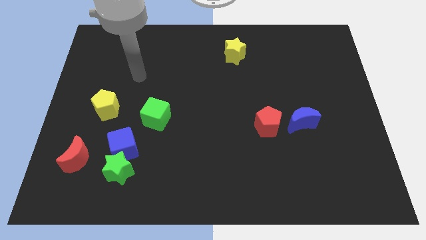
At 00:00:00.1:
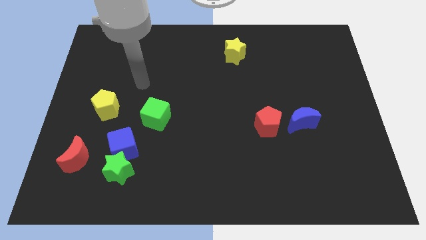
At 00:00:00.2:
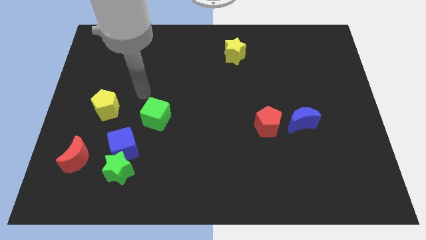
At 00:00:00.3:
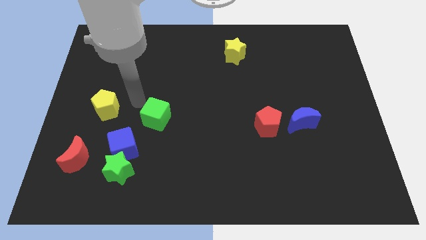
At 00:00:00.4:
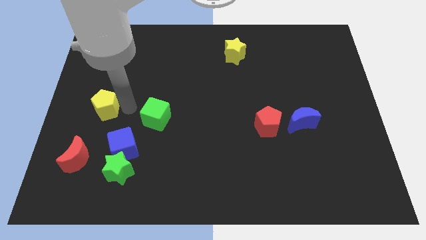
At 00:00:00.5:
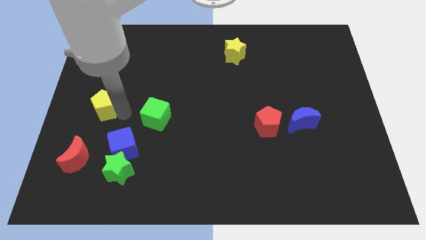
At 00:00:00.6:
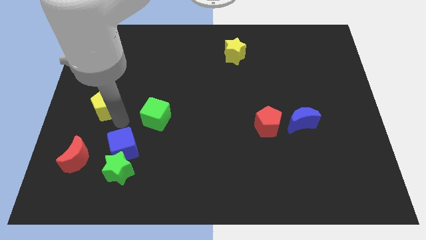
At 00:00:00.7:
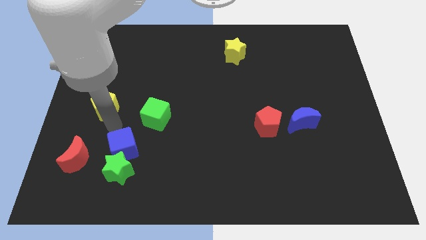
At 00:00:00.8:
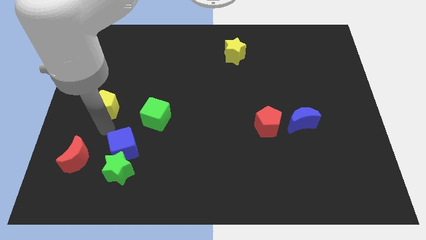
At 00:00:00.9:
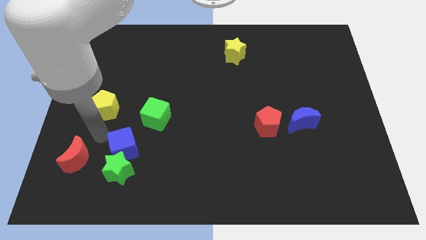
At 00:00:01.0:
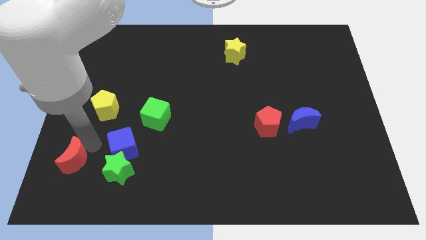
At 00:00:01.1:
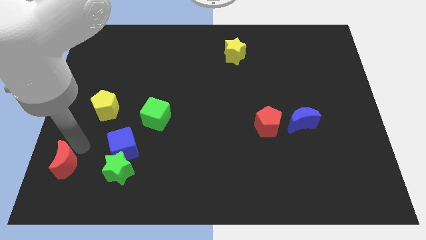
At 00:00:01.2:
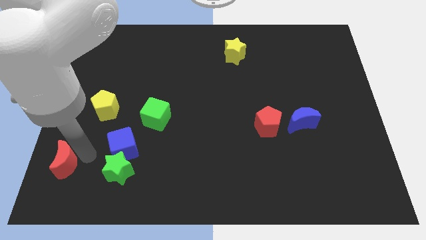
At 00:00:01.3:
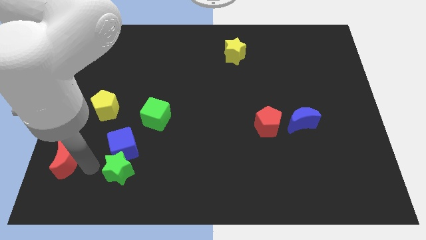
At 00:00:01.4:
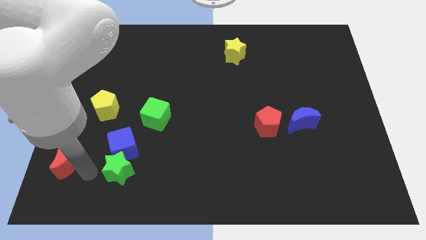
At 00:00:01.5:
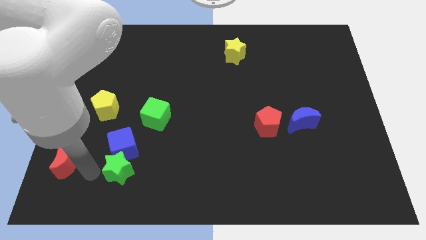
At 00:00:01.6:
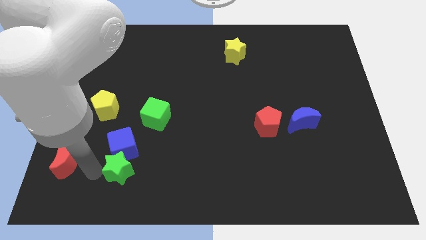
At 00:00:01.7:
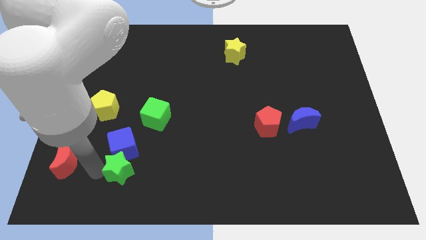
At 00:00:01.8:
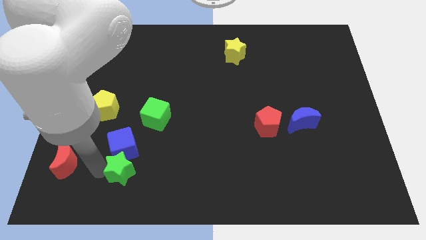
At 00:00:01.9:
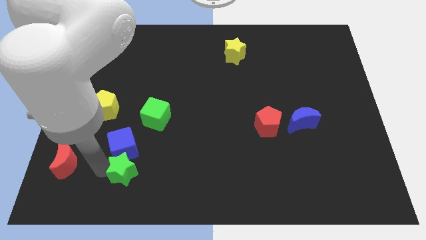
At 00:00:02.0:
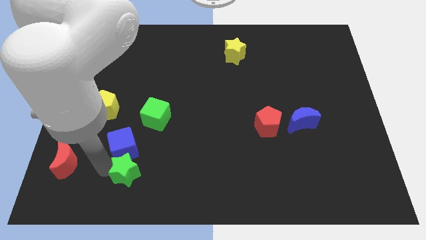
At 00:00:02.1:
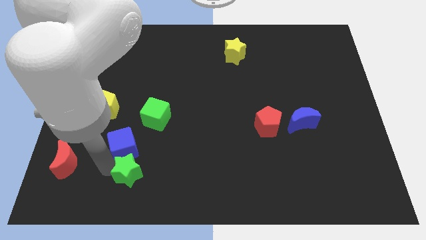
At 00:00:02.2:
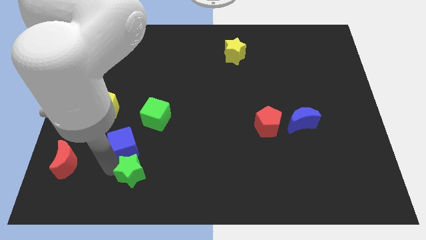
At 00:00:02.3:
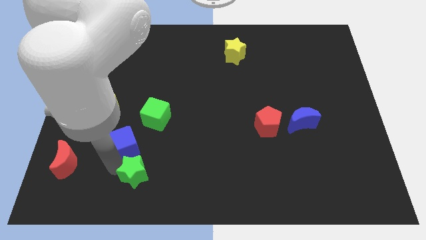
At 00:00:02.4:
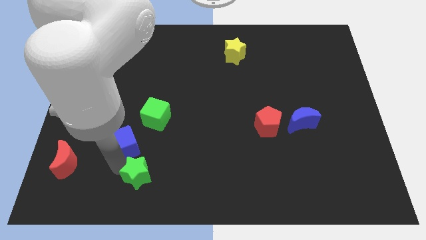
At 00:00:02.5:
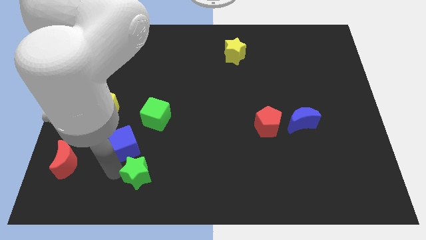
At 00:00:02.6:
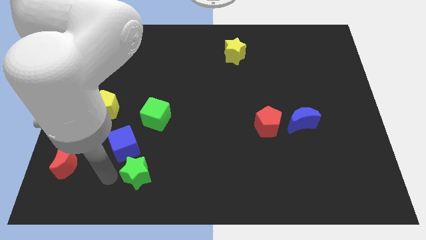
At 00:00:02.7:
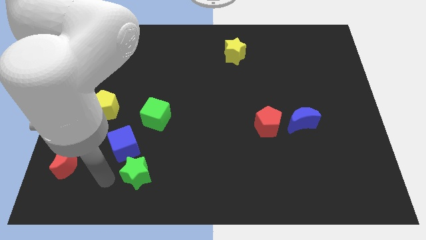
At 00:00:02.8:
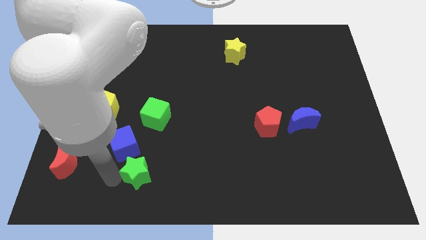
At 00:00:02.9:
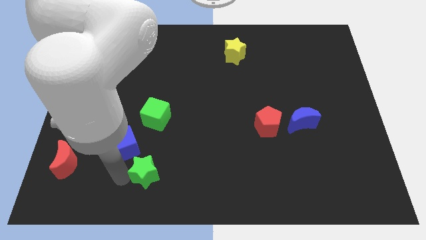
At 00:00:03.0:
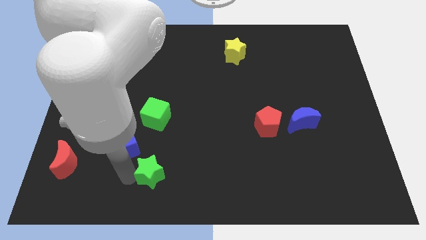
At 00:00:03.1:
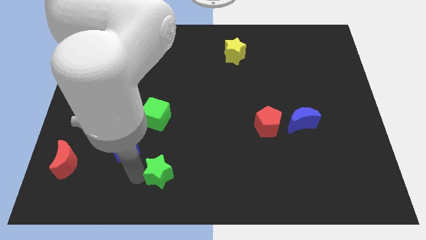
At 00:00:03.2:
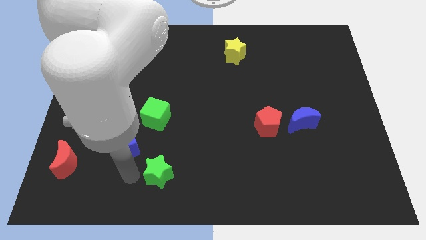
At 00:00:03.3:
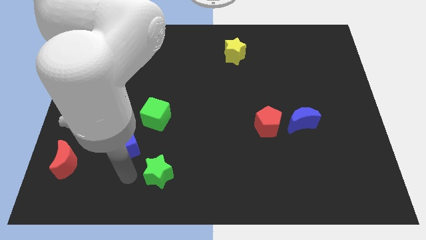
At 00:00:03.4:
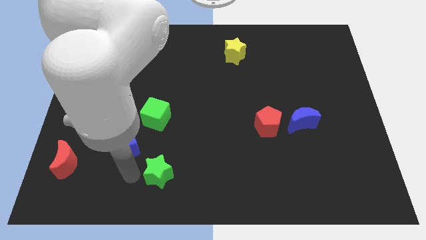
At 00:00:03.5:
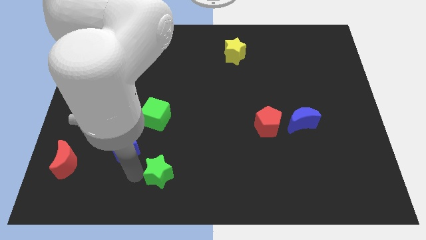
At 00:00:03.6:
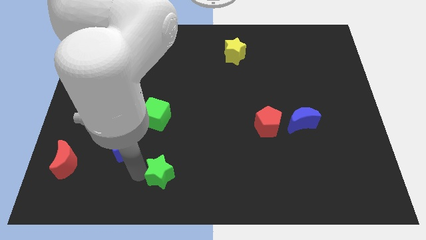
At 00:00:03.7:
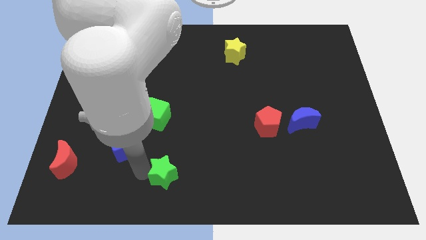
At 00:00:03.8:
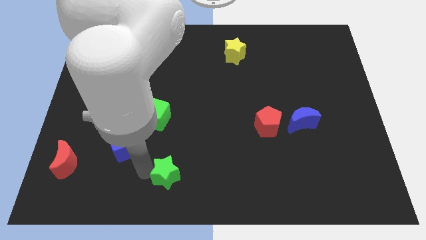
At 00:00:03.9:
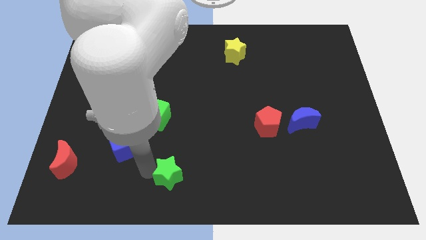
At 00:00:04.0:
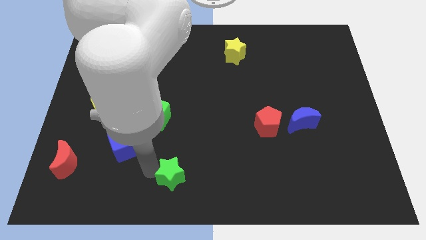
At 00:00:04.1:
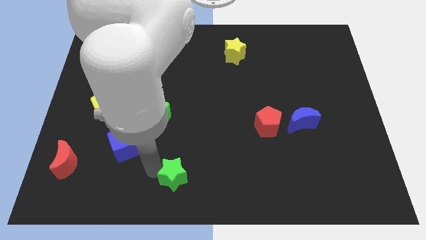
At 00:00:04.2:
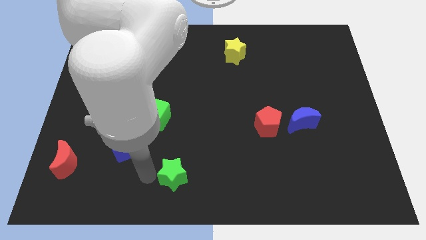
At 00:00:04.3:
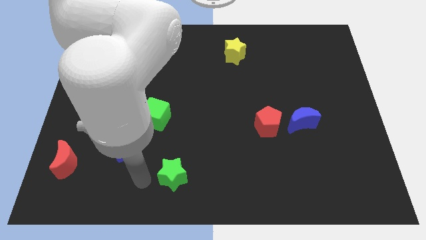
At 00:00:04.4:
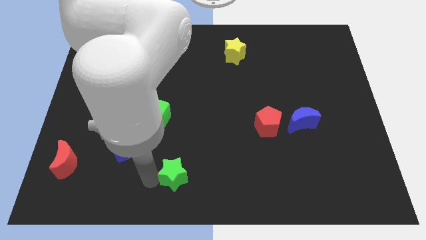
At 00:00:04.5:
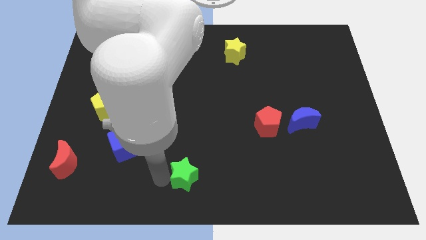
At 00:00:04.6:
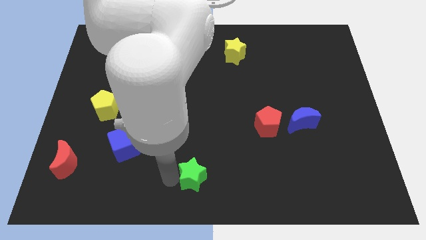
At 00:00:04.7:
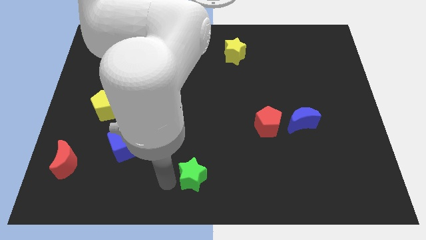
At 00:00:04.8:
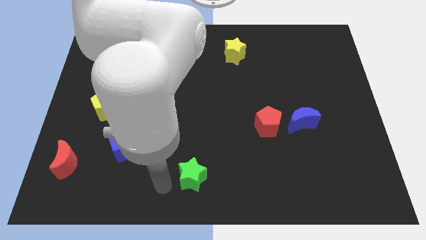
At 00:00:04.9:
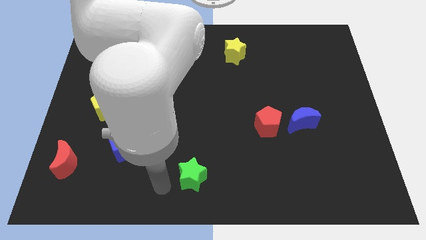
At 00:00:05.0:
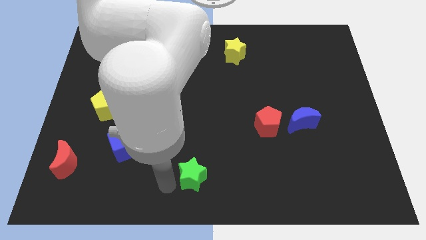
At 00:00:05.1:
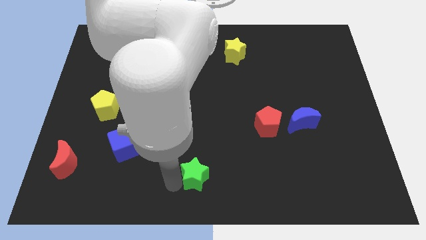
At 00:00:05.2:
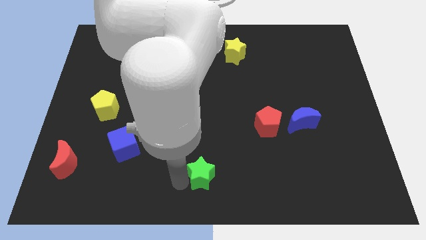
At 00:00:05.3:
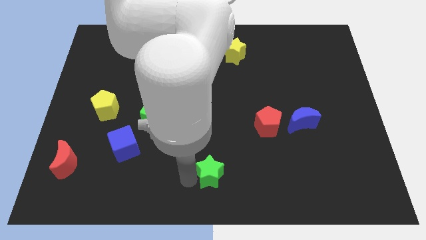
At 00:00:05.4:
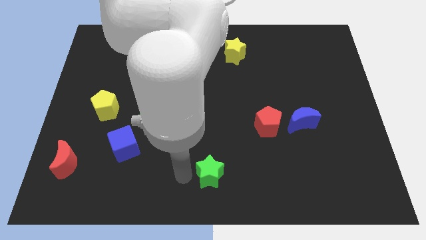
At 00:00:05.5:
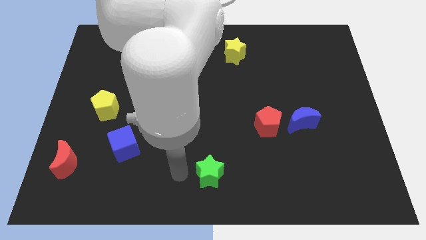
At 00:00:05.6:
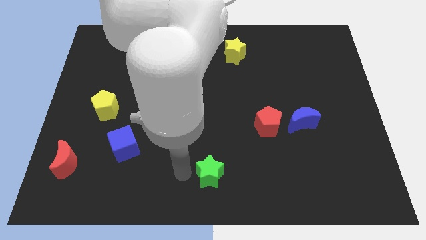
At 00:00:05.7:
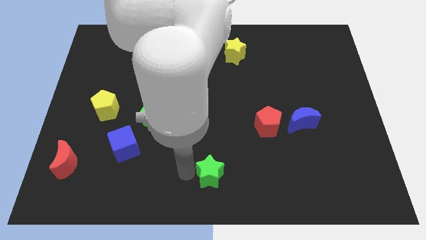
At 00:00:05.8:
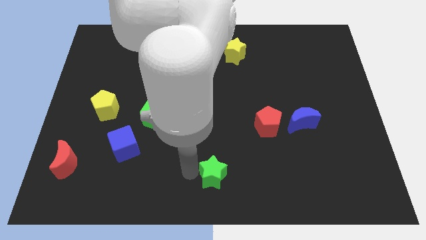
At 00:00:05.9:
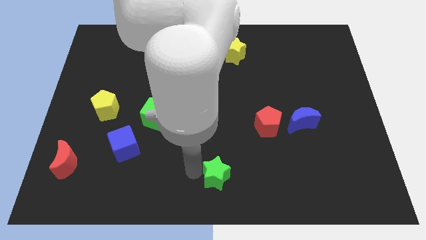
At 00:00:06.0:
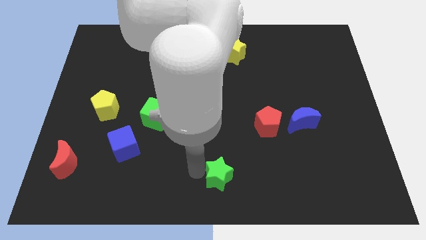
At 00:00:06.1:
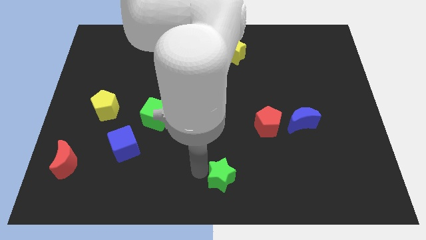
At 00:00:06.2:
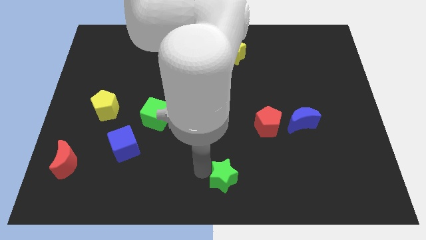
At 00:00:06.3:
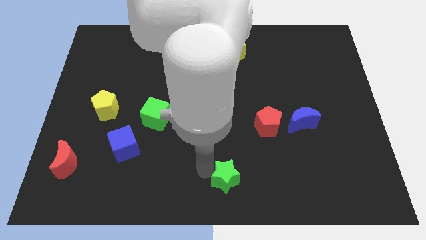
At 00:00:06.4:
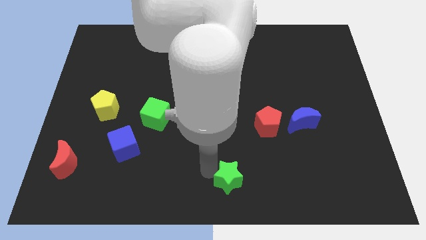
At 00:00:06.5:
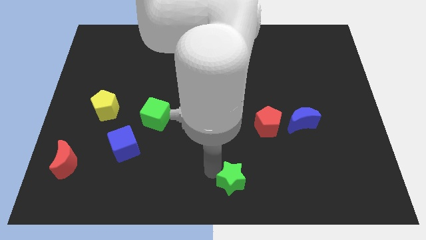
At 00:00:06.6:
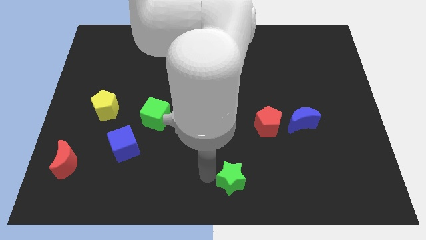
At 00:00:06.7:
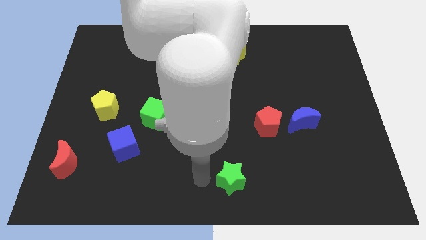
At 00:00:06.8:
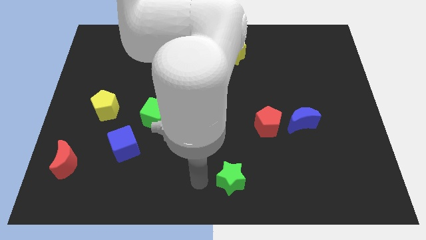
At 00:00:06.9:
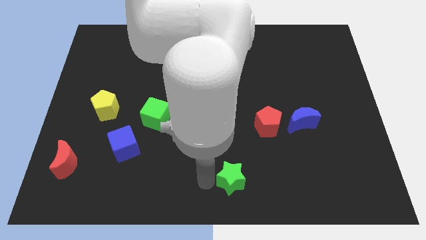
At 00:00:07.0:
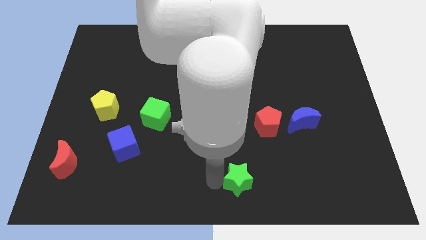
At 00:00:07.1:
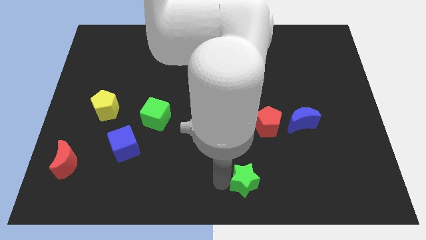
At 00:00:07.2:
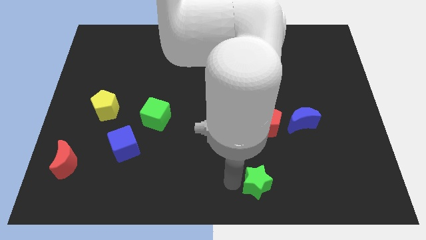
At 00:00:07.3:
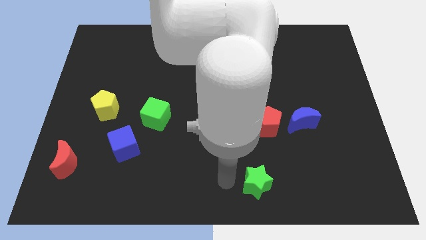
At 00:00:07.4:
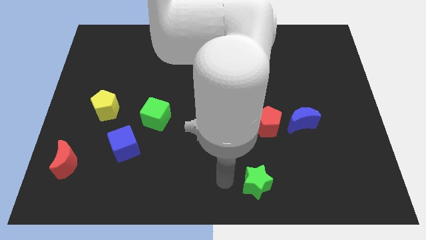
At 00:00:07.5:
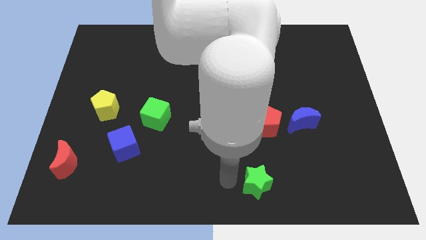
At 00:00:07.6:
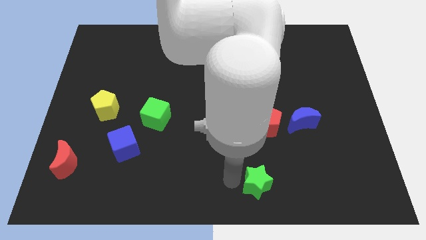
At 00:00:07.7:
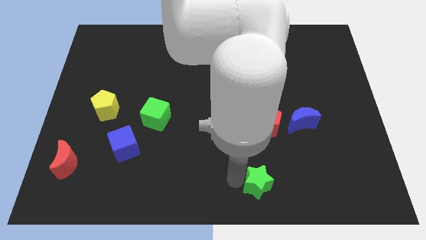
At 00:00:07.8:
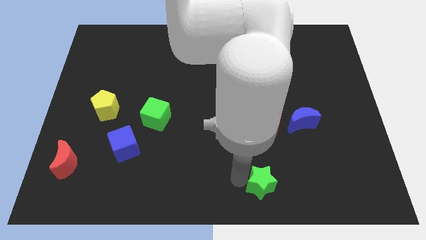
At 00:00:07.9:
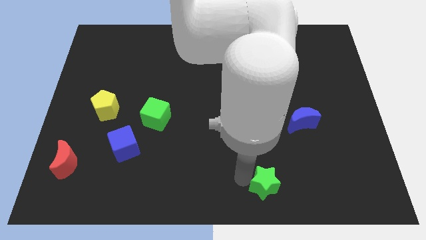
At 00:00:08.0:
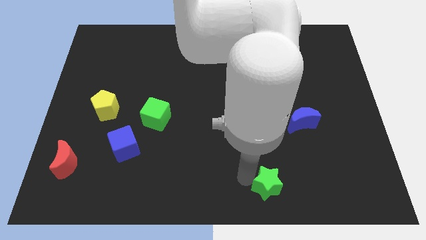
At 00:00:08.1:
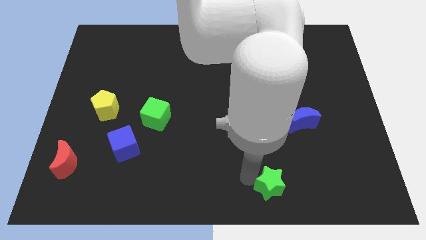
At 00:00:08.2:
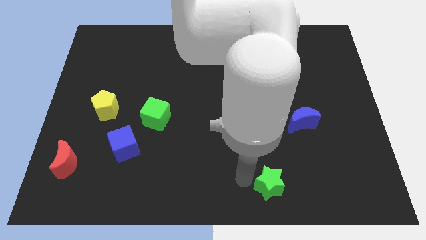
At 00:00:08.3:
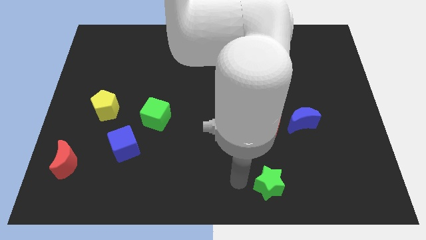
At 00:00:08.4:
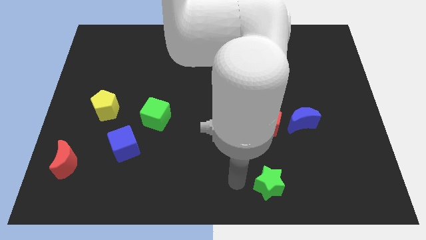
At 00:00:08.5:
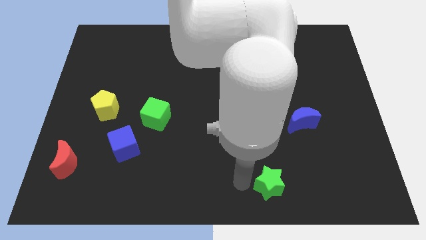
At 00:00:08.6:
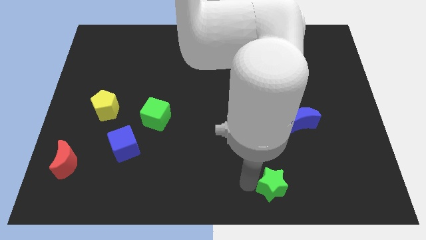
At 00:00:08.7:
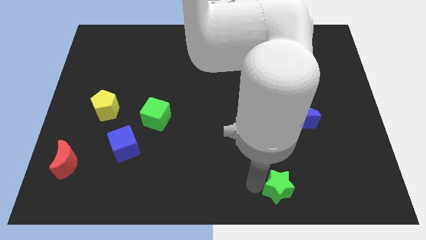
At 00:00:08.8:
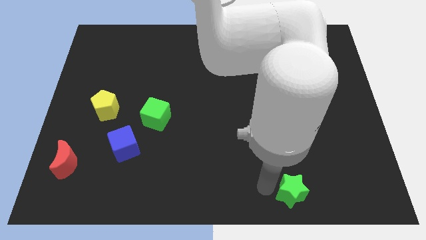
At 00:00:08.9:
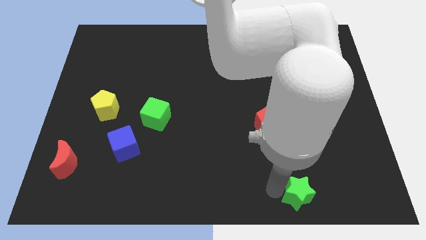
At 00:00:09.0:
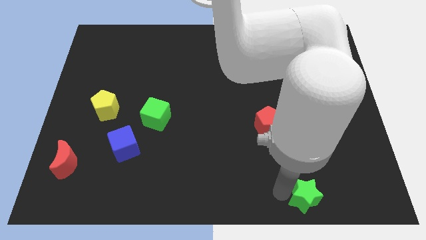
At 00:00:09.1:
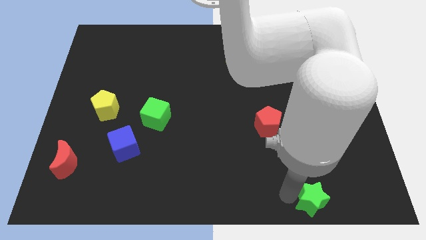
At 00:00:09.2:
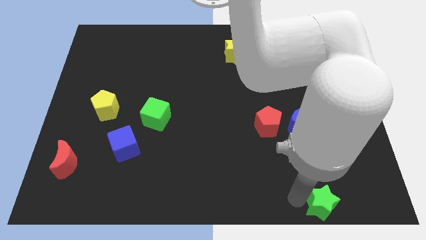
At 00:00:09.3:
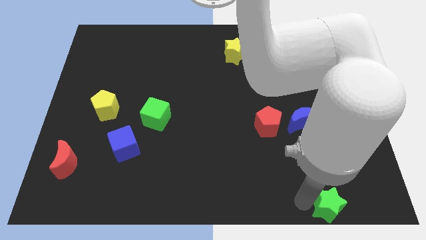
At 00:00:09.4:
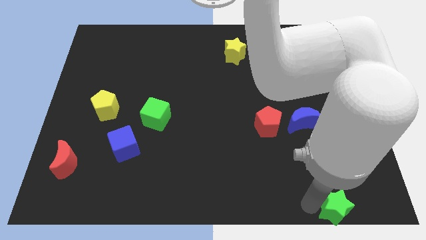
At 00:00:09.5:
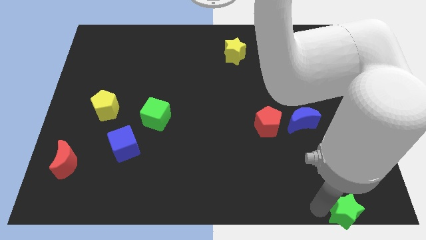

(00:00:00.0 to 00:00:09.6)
put the green star to the bottom right corner
